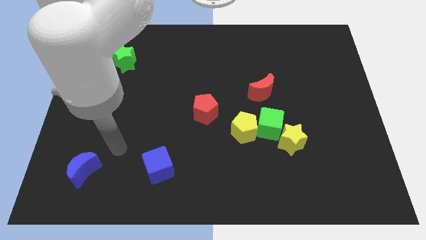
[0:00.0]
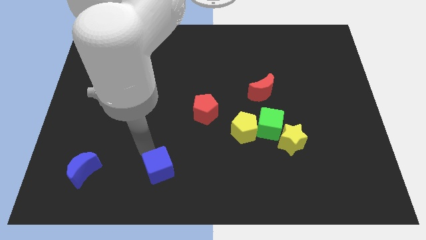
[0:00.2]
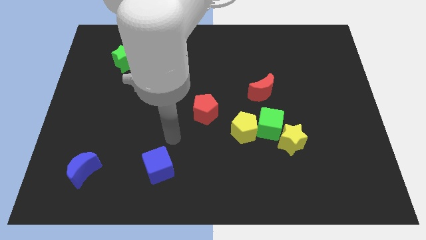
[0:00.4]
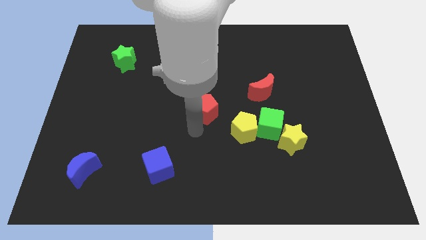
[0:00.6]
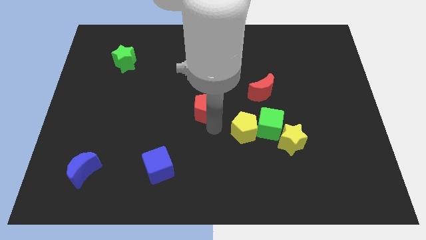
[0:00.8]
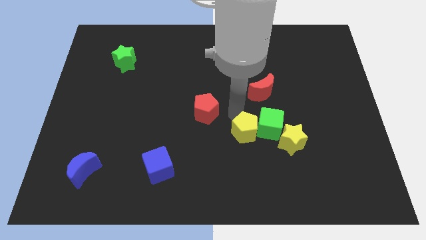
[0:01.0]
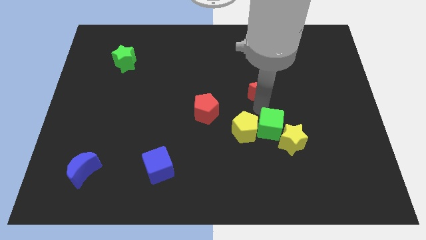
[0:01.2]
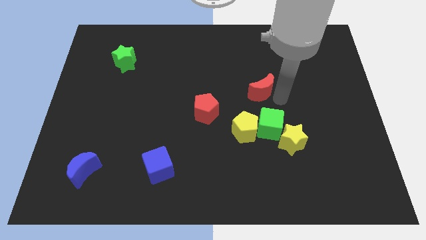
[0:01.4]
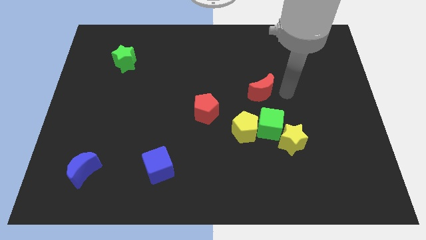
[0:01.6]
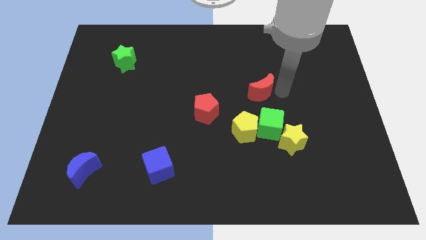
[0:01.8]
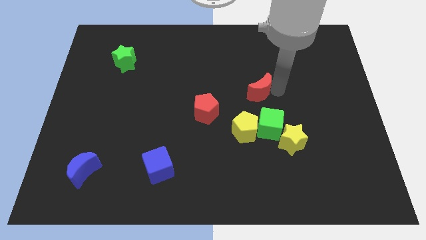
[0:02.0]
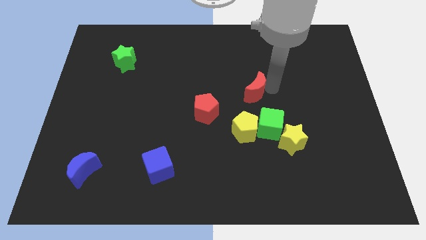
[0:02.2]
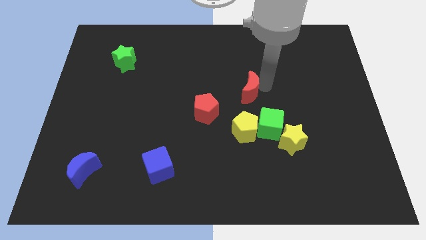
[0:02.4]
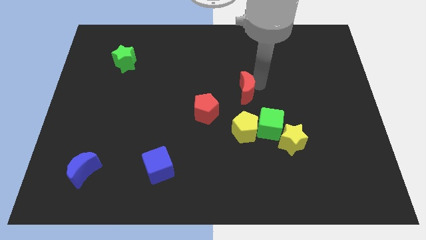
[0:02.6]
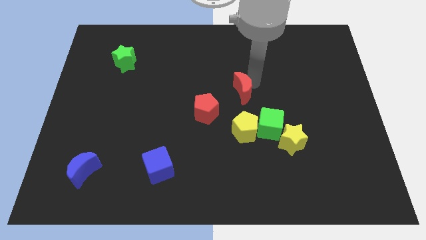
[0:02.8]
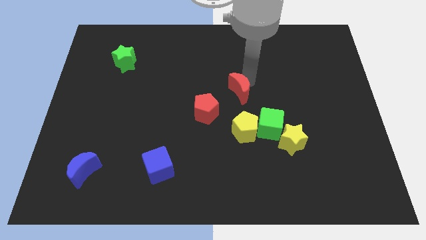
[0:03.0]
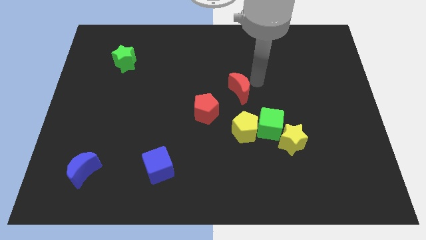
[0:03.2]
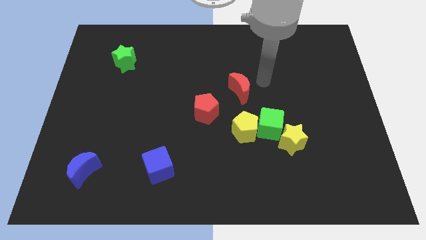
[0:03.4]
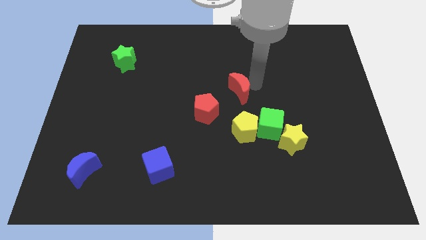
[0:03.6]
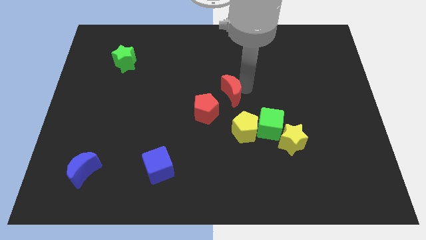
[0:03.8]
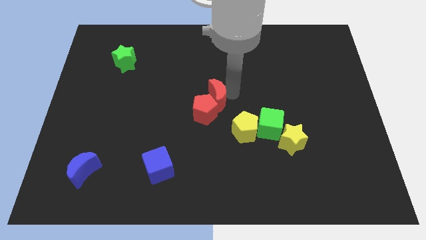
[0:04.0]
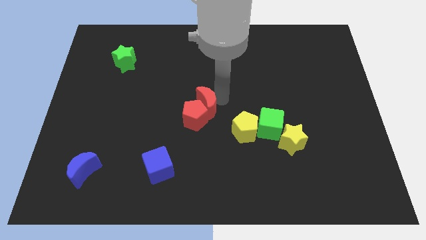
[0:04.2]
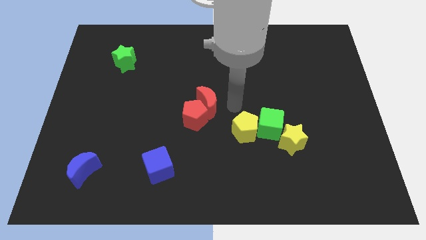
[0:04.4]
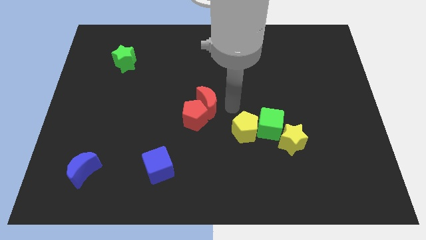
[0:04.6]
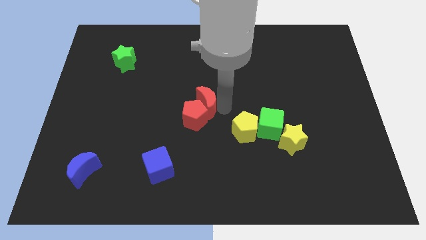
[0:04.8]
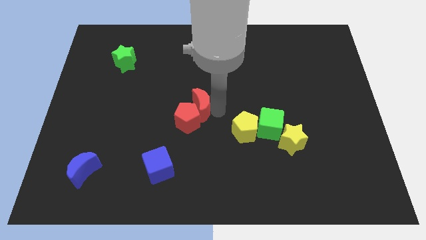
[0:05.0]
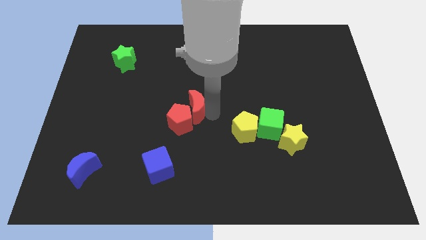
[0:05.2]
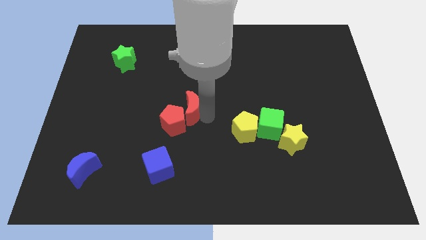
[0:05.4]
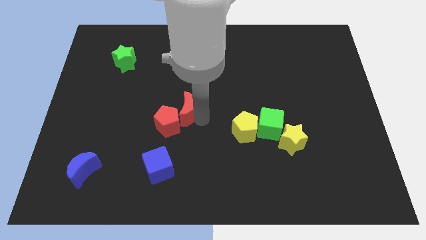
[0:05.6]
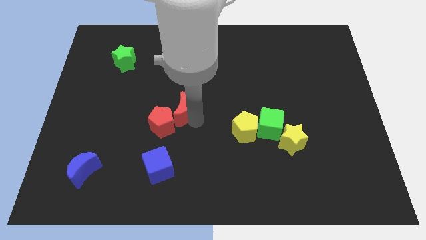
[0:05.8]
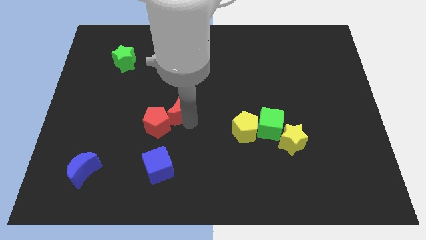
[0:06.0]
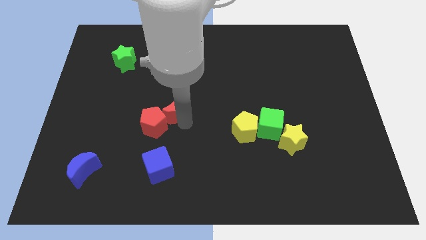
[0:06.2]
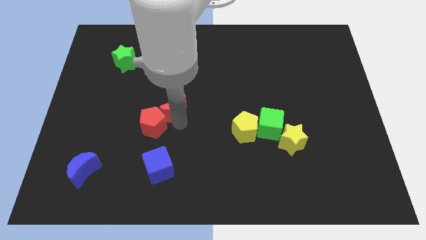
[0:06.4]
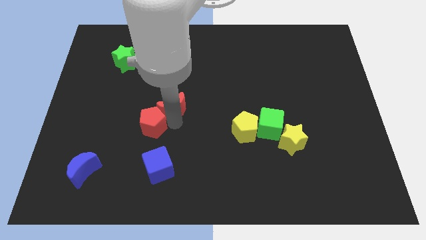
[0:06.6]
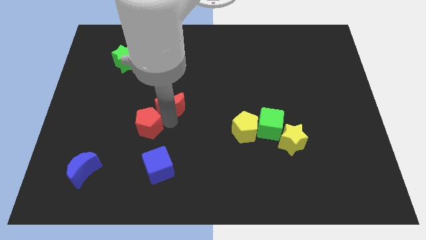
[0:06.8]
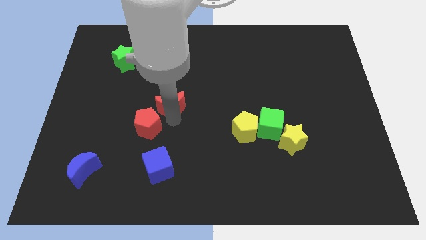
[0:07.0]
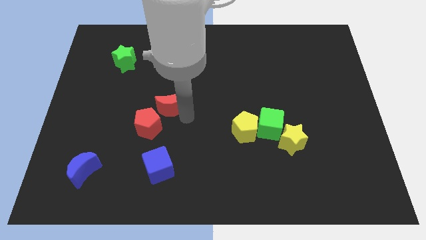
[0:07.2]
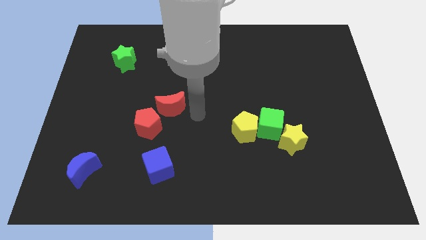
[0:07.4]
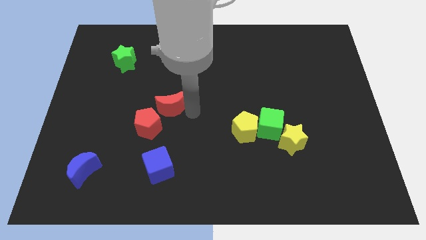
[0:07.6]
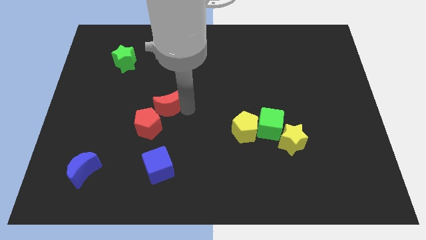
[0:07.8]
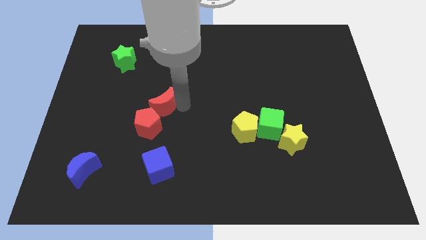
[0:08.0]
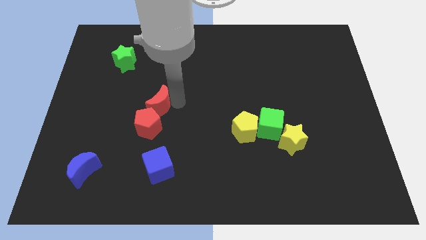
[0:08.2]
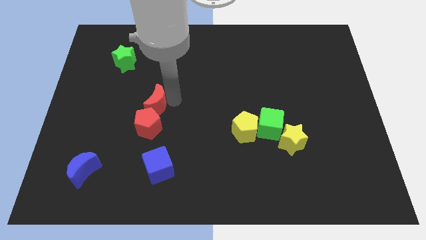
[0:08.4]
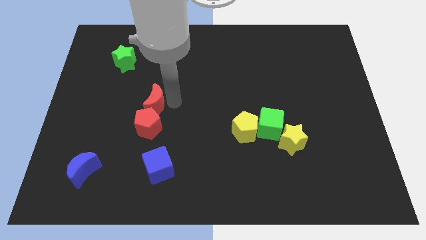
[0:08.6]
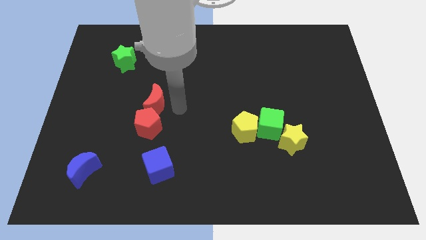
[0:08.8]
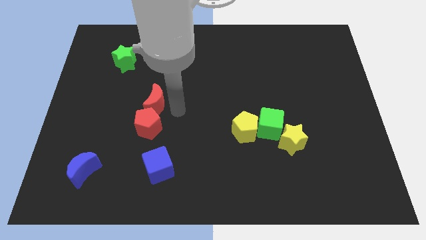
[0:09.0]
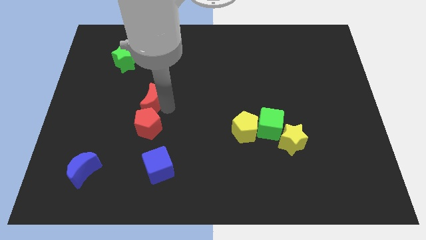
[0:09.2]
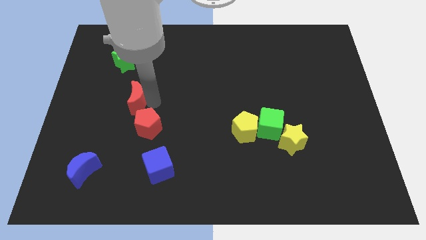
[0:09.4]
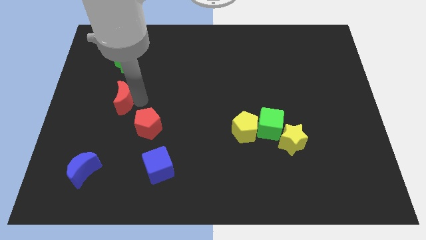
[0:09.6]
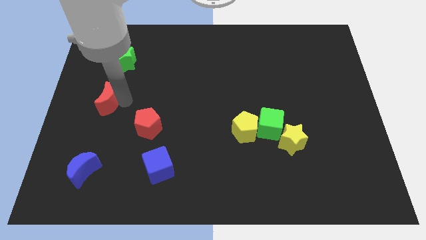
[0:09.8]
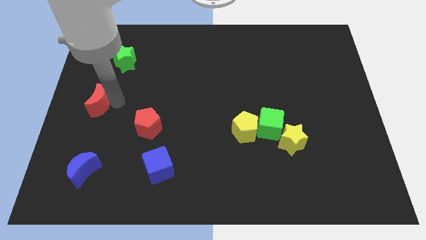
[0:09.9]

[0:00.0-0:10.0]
put the red moon to the center left

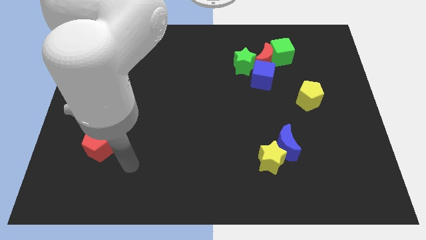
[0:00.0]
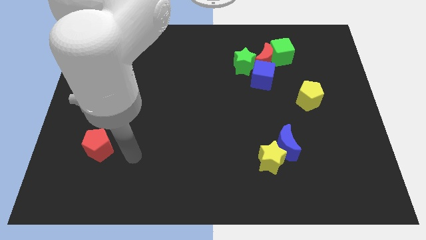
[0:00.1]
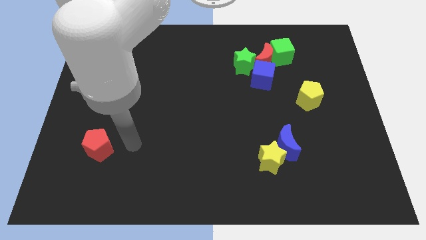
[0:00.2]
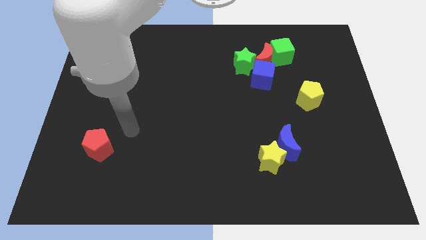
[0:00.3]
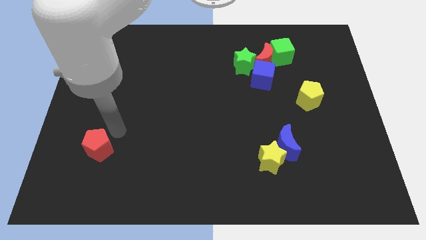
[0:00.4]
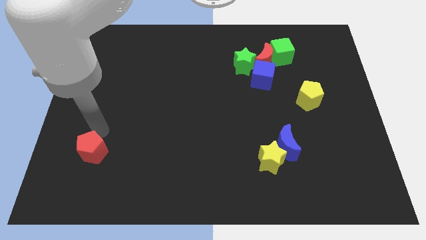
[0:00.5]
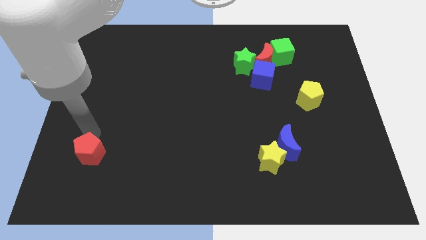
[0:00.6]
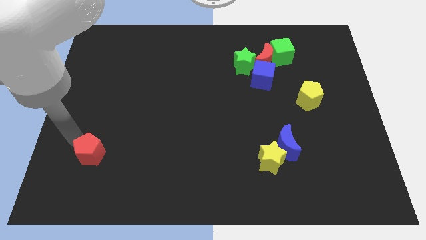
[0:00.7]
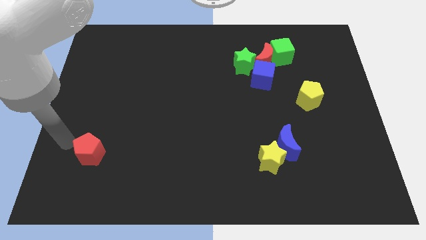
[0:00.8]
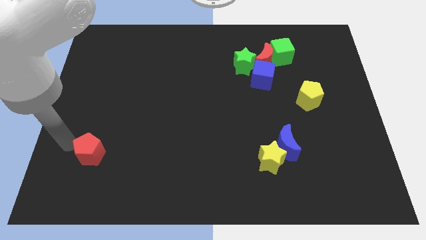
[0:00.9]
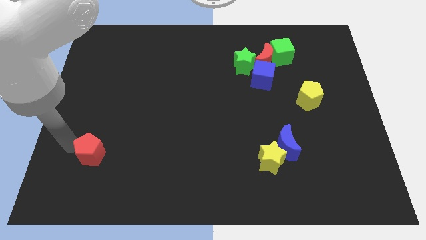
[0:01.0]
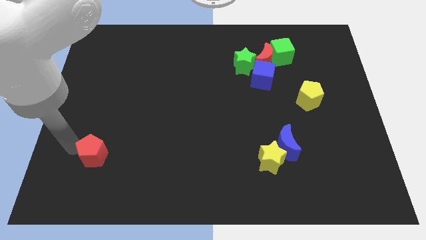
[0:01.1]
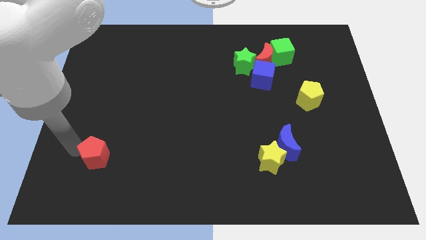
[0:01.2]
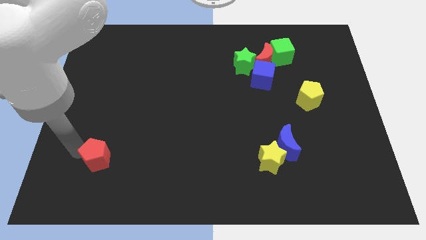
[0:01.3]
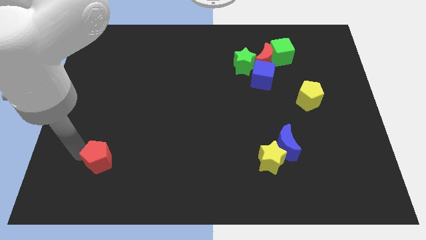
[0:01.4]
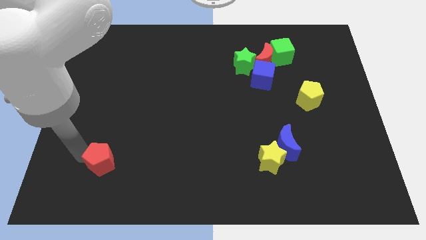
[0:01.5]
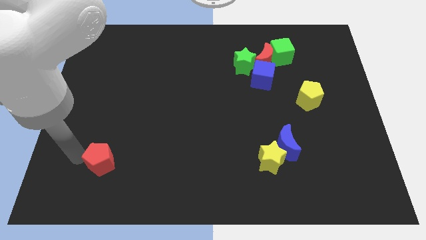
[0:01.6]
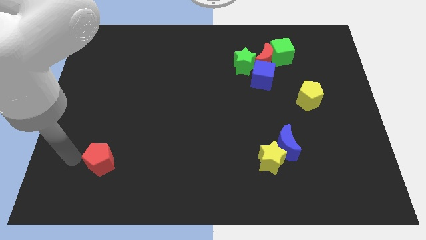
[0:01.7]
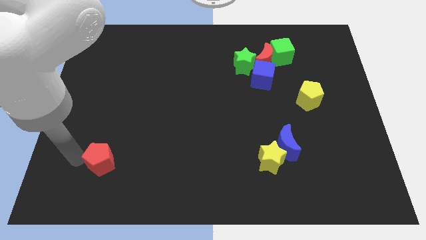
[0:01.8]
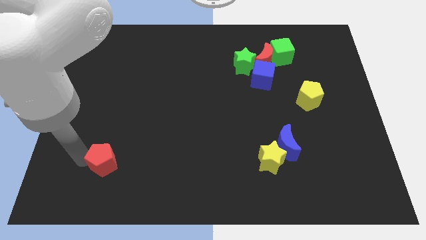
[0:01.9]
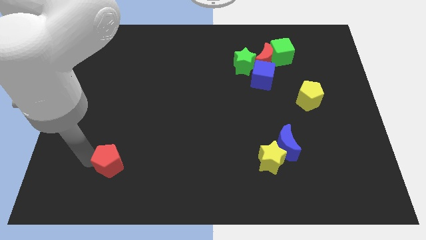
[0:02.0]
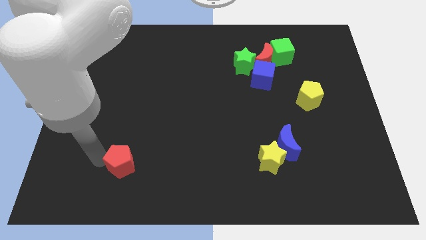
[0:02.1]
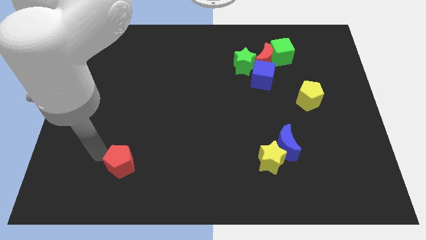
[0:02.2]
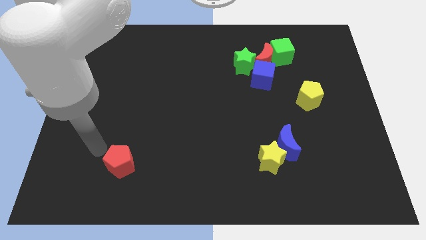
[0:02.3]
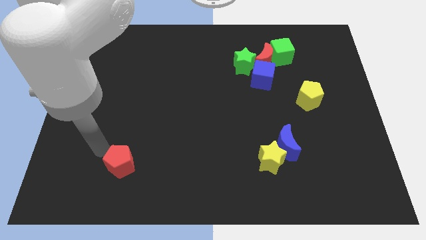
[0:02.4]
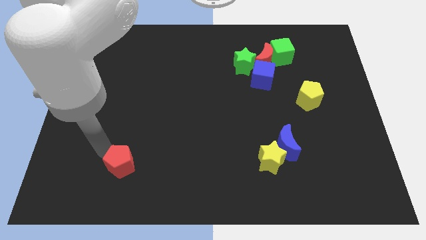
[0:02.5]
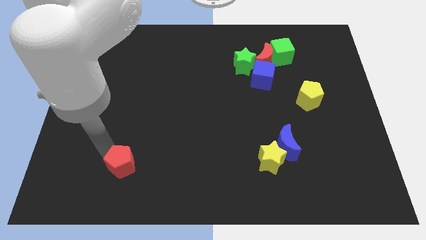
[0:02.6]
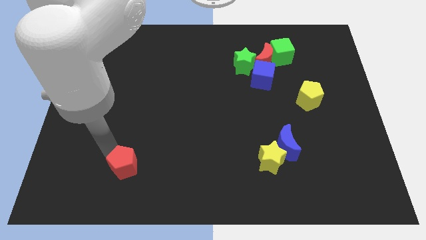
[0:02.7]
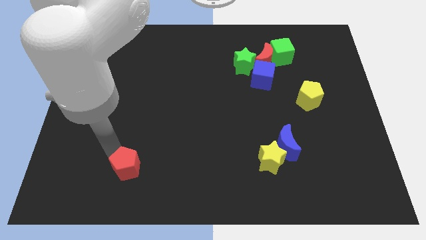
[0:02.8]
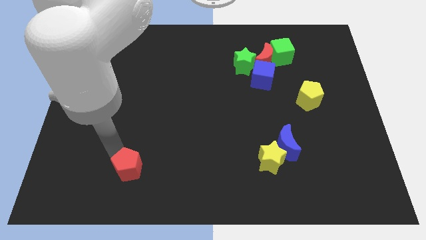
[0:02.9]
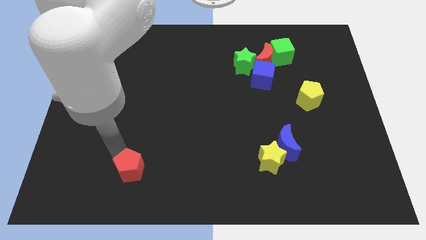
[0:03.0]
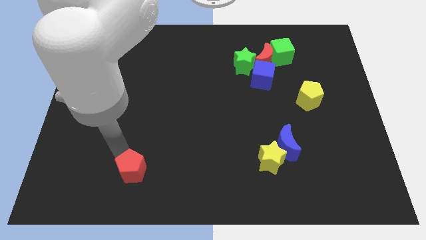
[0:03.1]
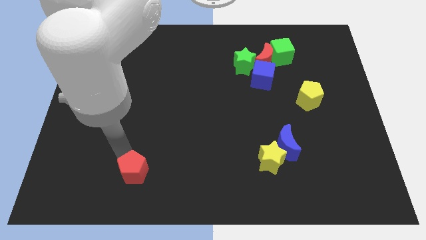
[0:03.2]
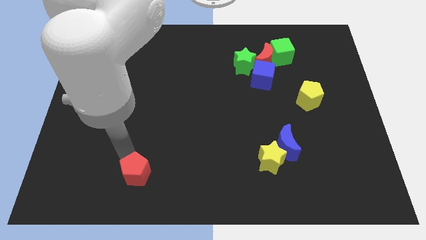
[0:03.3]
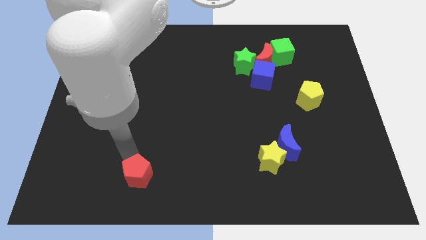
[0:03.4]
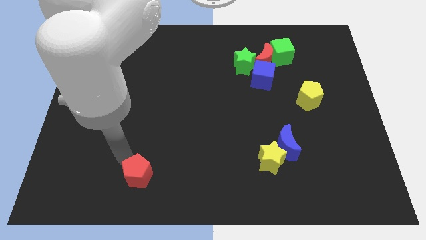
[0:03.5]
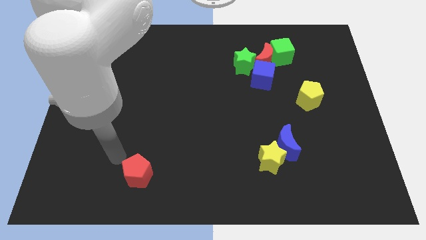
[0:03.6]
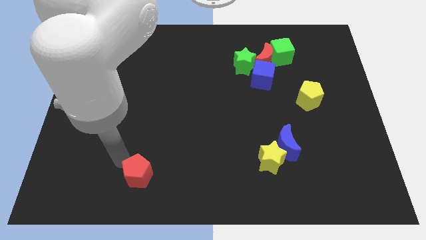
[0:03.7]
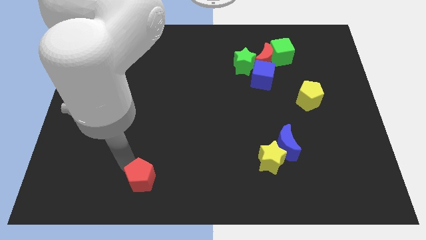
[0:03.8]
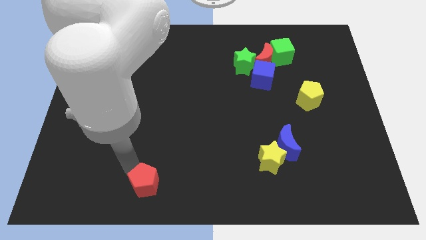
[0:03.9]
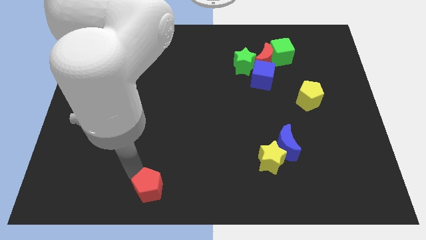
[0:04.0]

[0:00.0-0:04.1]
push the red pentagon to the bottom side
